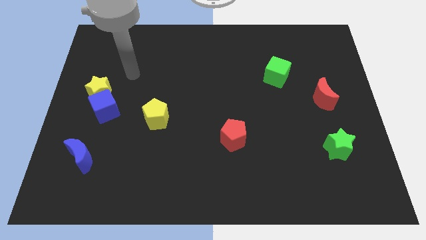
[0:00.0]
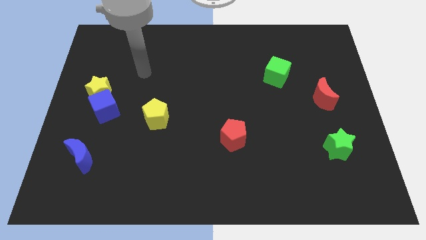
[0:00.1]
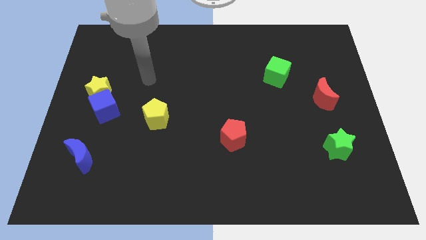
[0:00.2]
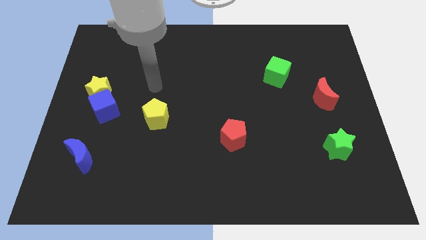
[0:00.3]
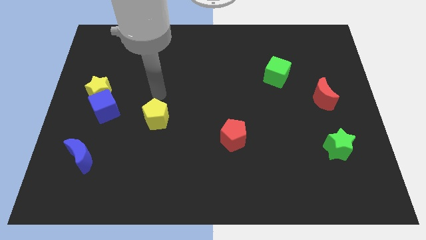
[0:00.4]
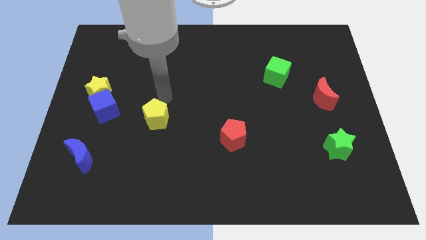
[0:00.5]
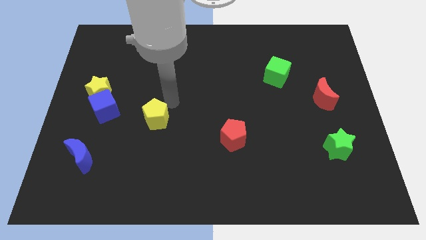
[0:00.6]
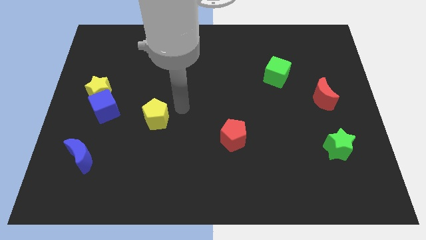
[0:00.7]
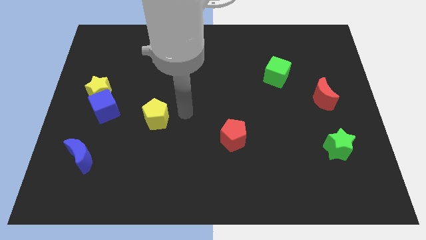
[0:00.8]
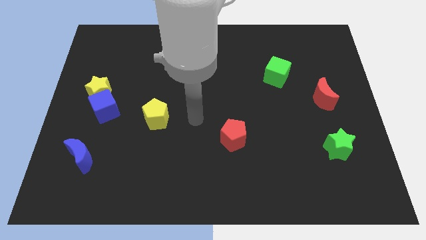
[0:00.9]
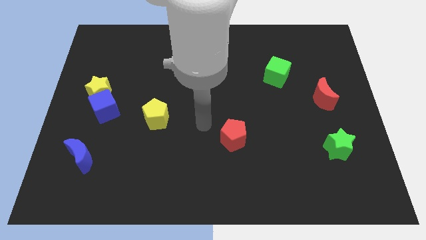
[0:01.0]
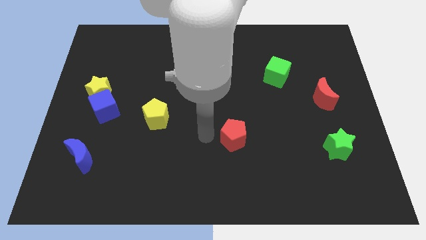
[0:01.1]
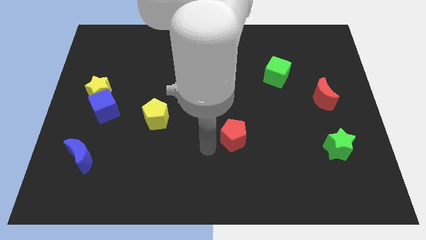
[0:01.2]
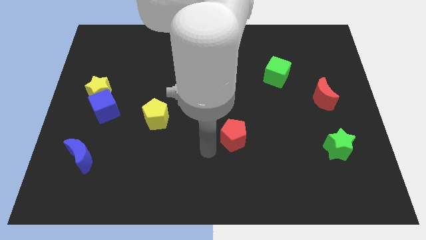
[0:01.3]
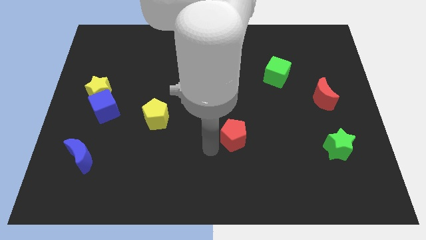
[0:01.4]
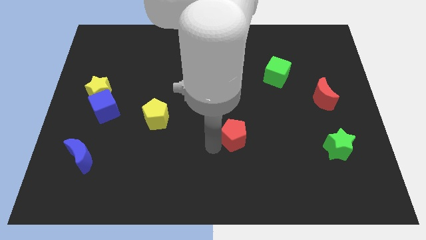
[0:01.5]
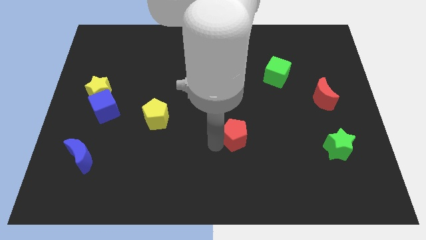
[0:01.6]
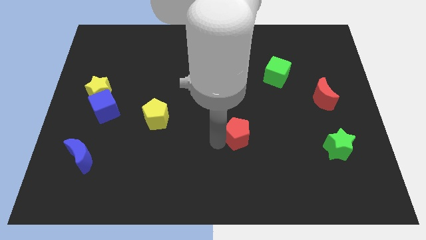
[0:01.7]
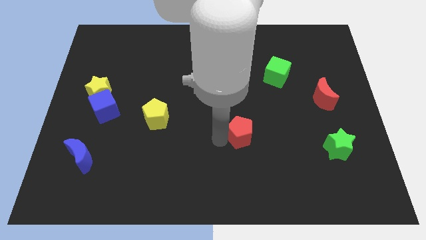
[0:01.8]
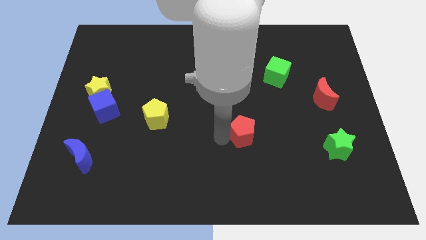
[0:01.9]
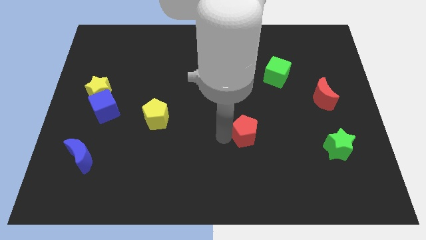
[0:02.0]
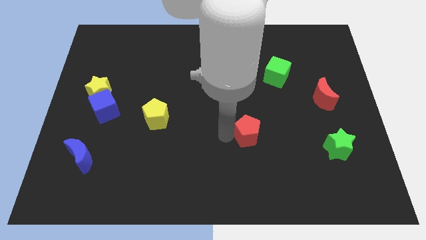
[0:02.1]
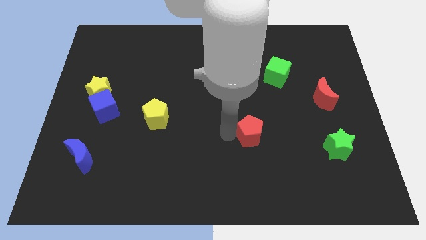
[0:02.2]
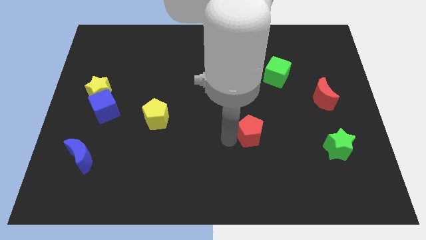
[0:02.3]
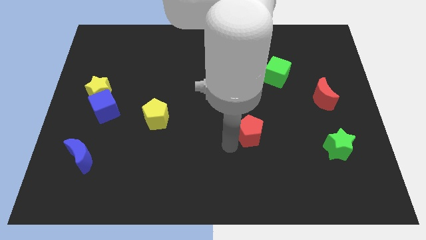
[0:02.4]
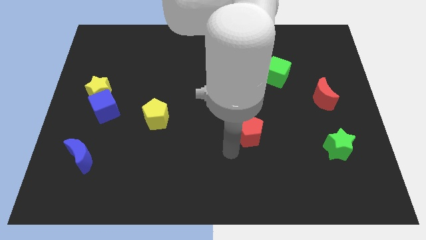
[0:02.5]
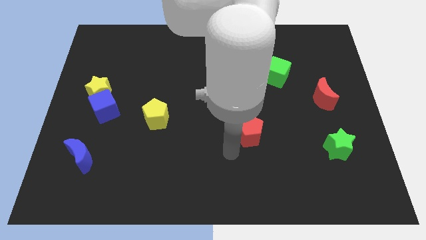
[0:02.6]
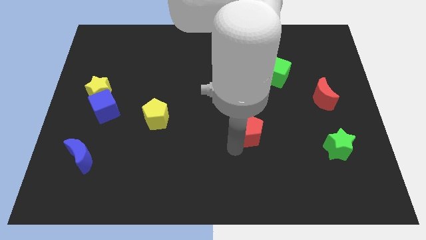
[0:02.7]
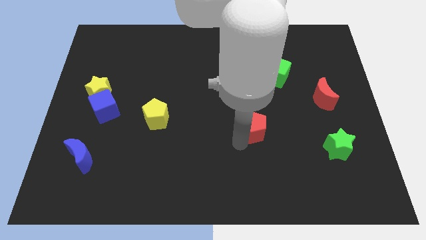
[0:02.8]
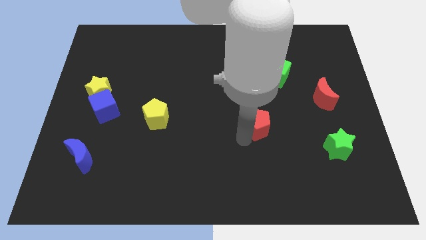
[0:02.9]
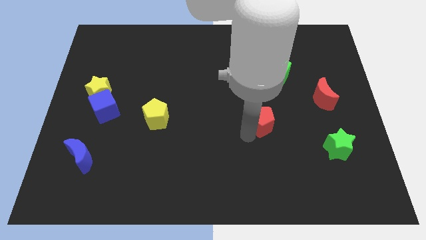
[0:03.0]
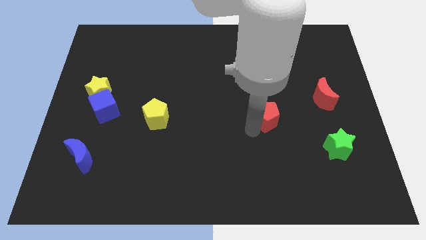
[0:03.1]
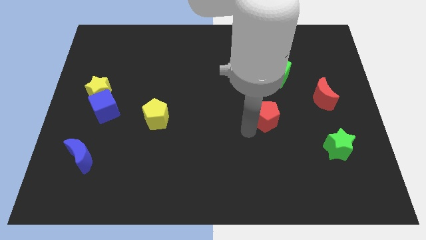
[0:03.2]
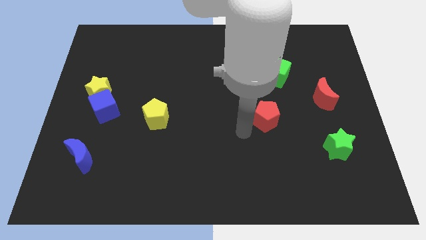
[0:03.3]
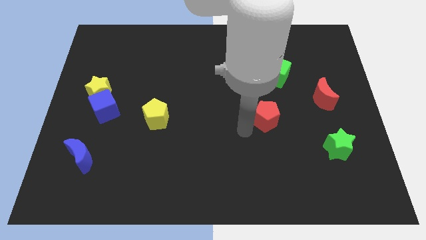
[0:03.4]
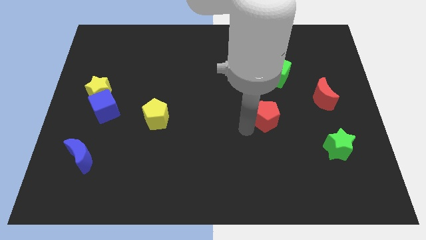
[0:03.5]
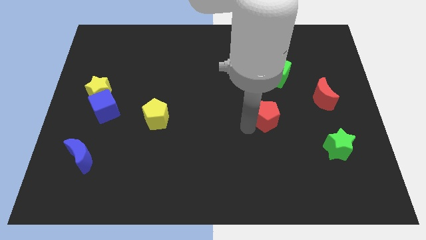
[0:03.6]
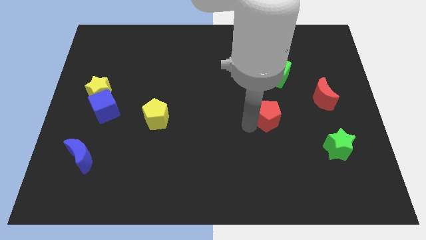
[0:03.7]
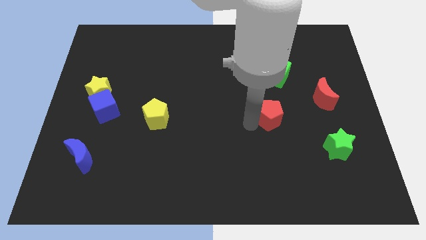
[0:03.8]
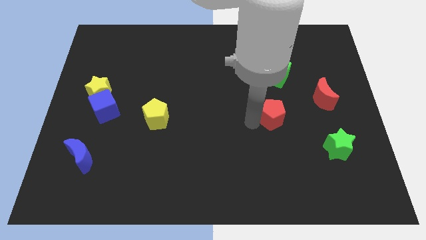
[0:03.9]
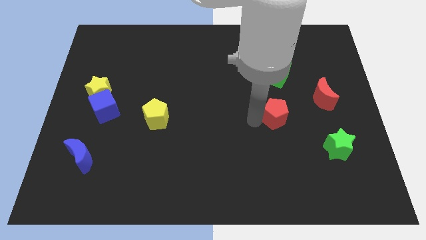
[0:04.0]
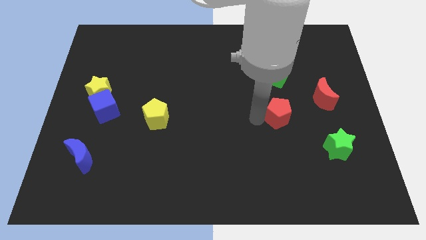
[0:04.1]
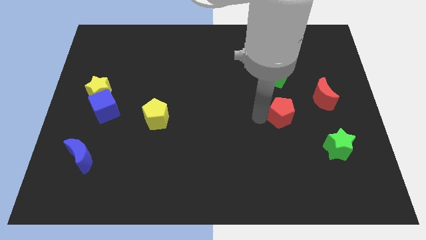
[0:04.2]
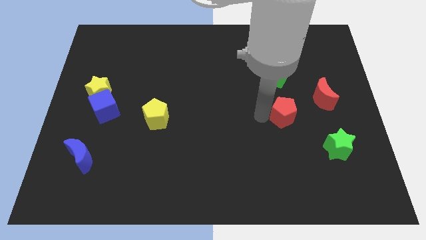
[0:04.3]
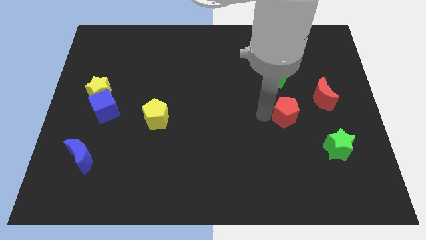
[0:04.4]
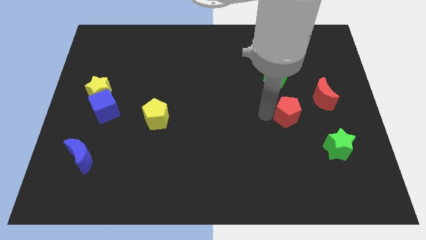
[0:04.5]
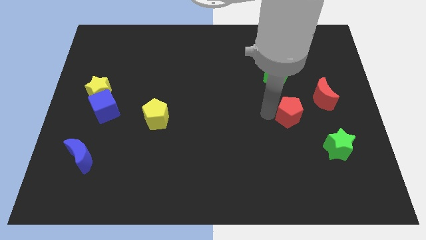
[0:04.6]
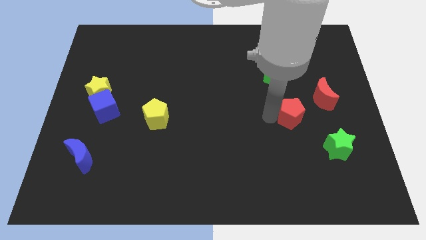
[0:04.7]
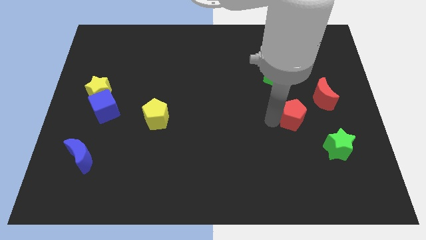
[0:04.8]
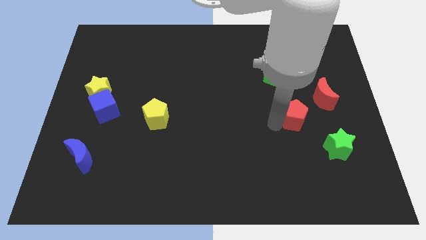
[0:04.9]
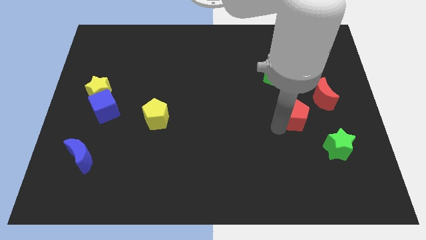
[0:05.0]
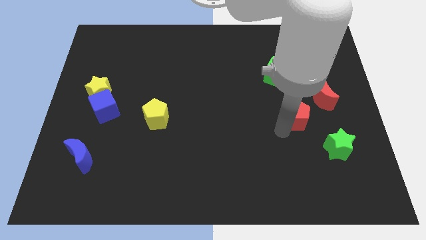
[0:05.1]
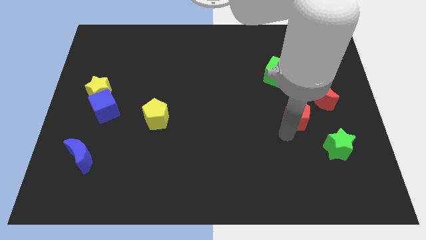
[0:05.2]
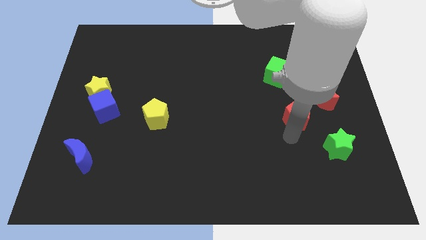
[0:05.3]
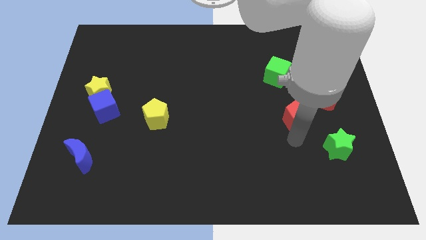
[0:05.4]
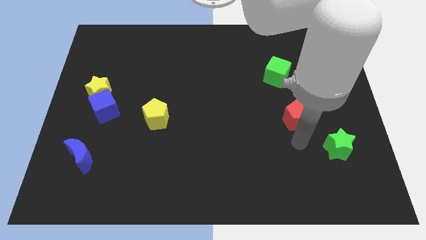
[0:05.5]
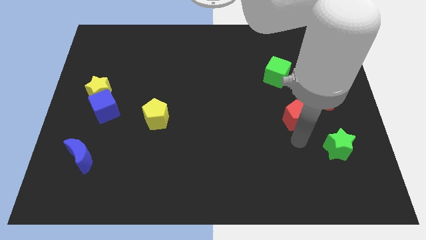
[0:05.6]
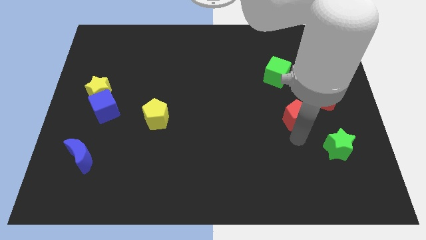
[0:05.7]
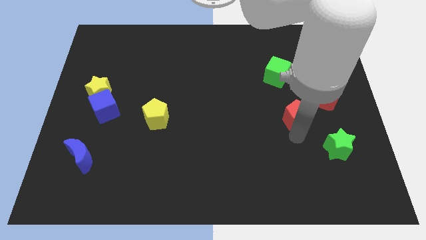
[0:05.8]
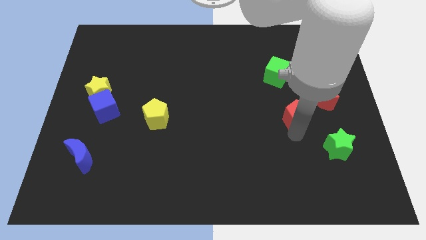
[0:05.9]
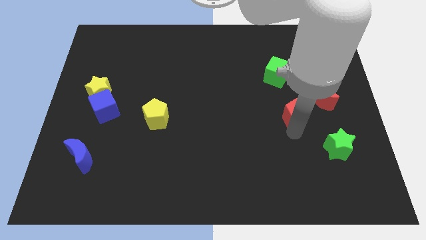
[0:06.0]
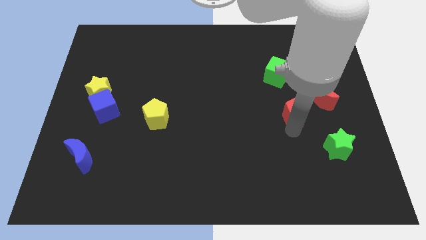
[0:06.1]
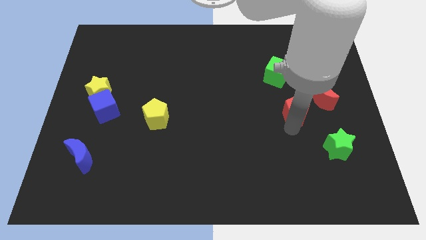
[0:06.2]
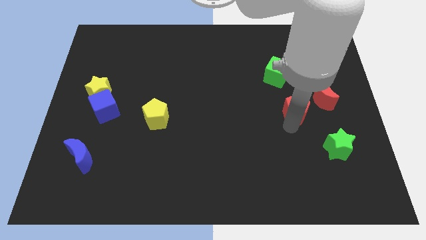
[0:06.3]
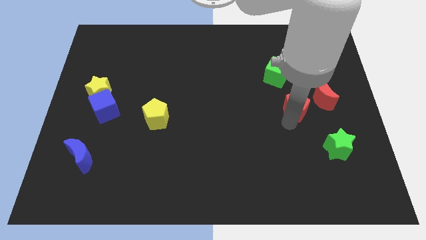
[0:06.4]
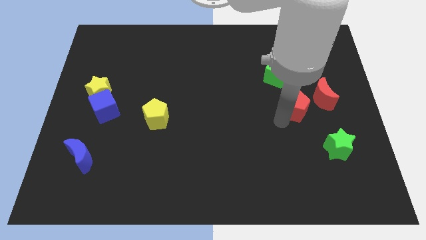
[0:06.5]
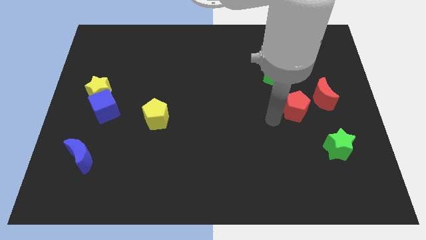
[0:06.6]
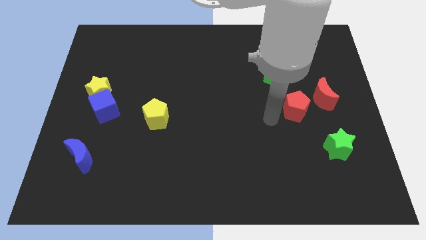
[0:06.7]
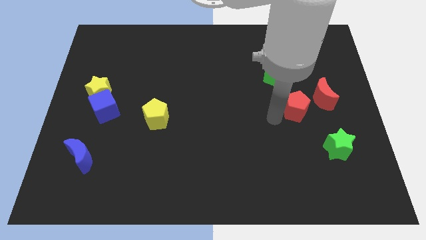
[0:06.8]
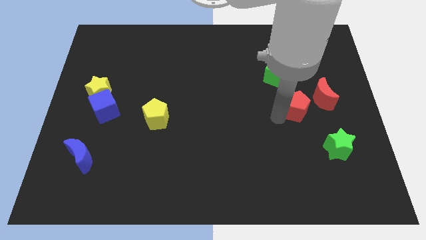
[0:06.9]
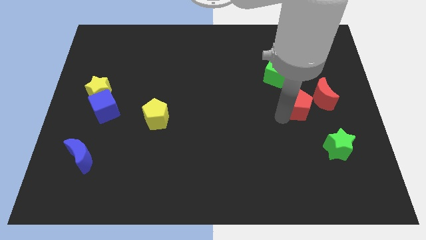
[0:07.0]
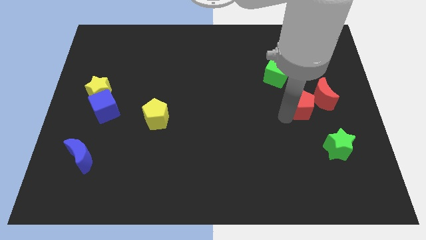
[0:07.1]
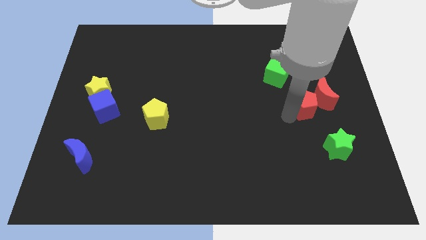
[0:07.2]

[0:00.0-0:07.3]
move the red pentagon towards the red moon
